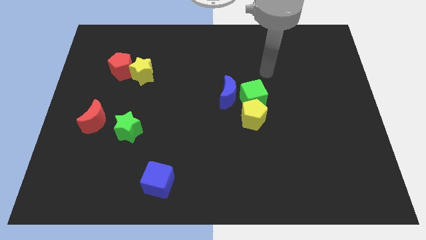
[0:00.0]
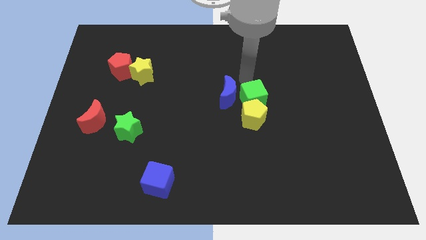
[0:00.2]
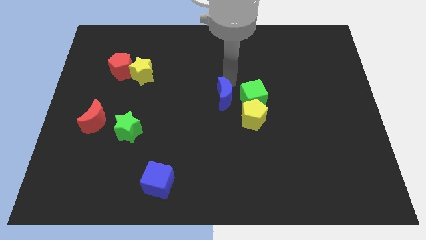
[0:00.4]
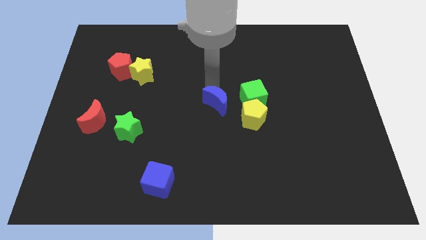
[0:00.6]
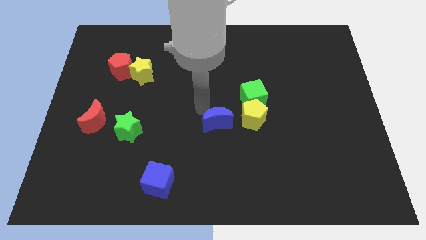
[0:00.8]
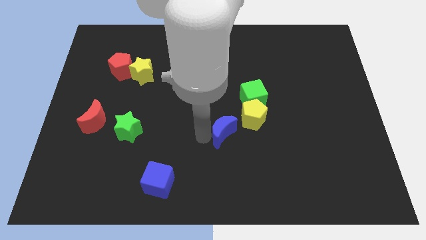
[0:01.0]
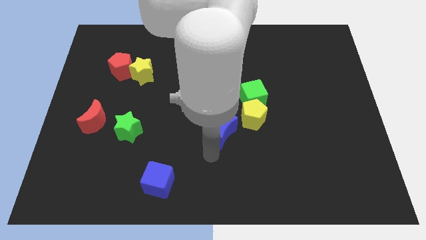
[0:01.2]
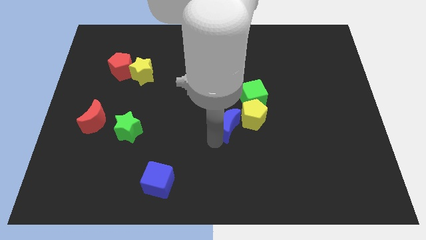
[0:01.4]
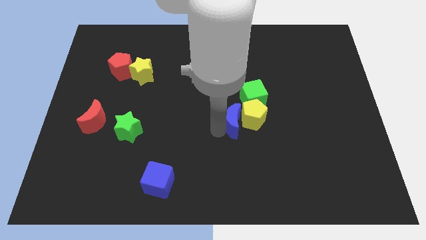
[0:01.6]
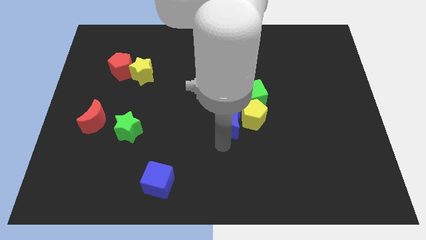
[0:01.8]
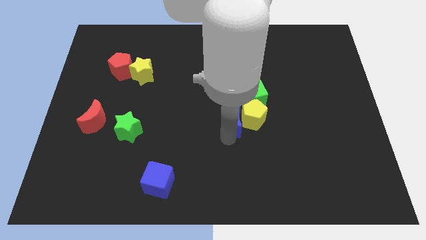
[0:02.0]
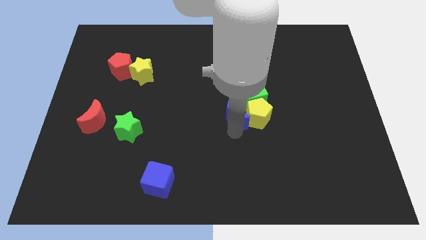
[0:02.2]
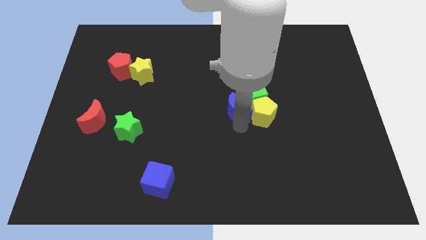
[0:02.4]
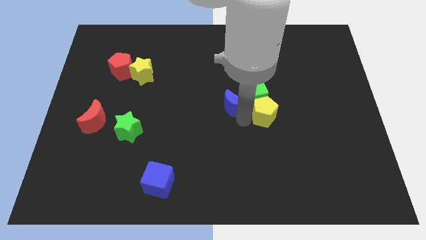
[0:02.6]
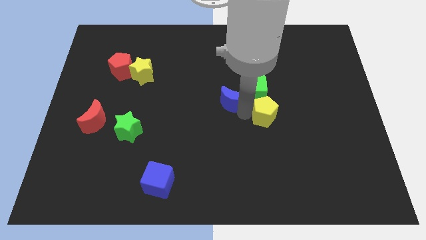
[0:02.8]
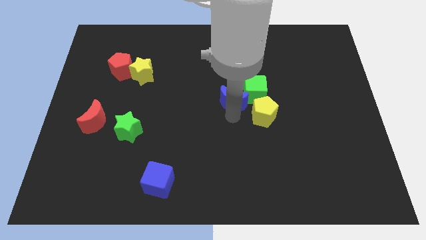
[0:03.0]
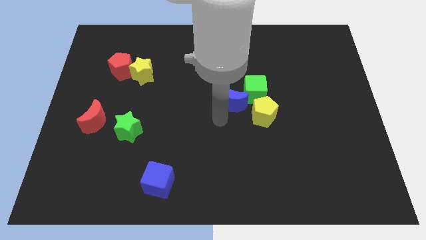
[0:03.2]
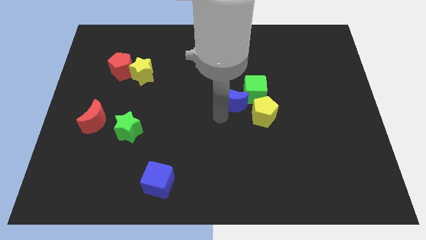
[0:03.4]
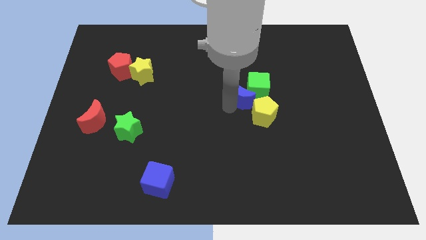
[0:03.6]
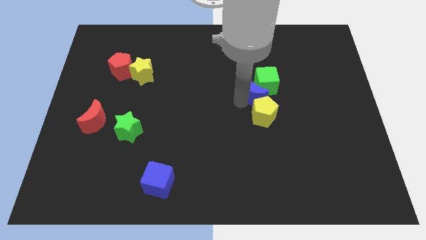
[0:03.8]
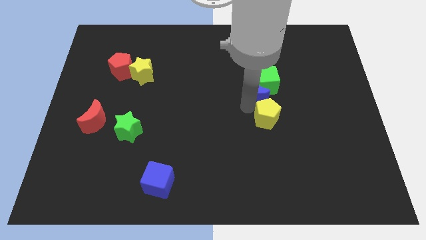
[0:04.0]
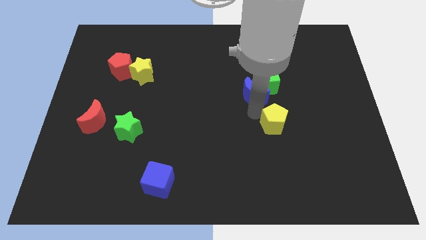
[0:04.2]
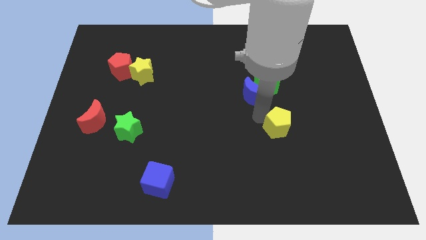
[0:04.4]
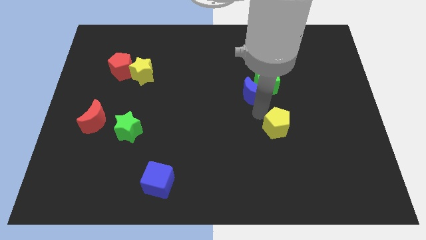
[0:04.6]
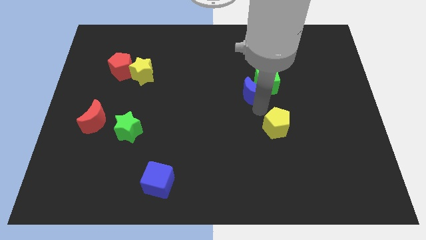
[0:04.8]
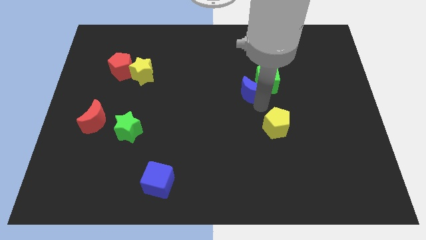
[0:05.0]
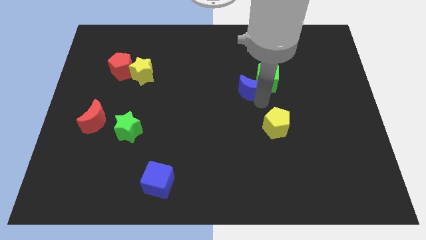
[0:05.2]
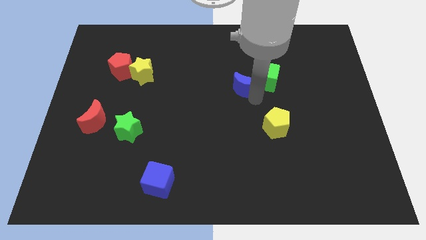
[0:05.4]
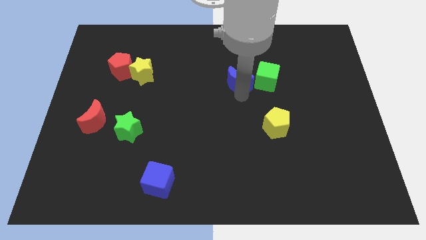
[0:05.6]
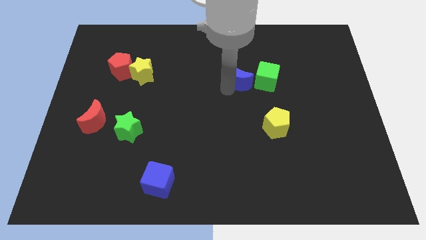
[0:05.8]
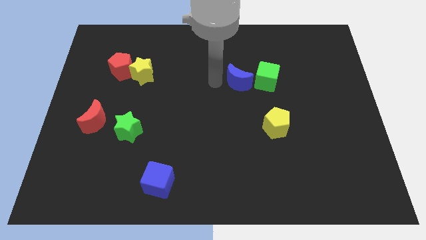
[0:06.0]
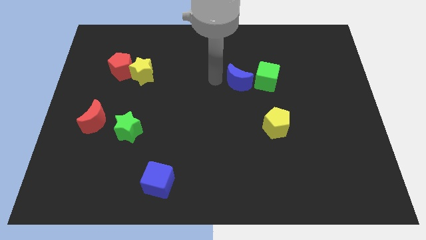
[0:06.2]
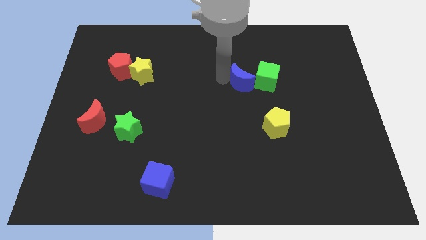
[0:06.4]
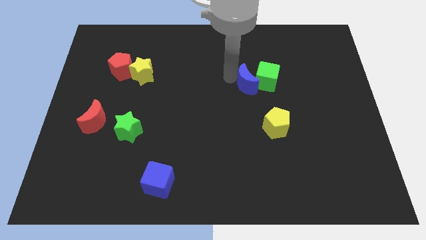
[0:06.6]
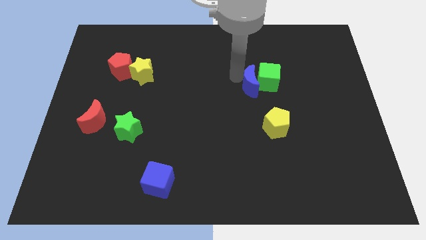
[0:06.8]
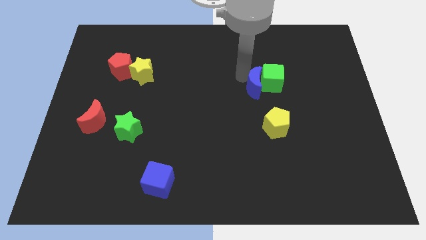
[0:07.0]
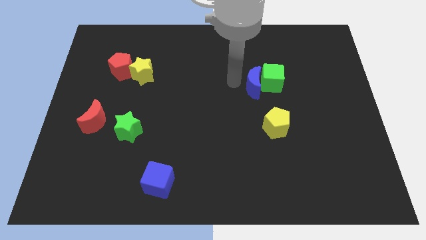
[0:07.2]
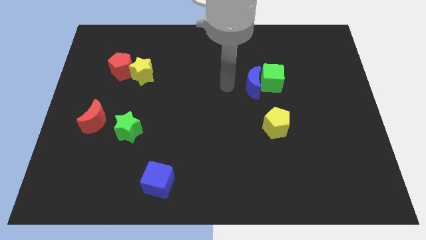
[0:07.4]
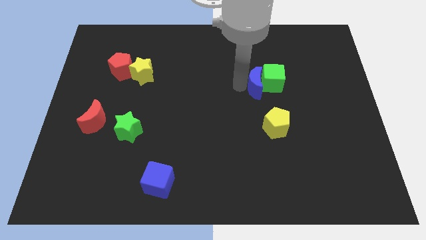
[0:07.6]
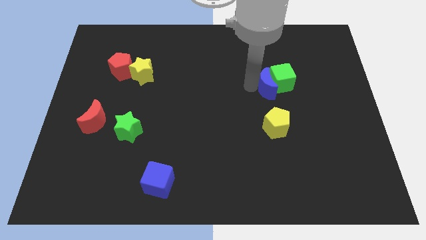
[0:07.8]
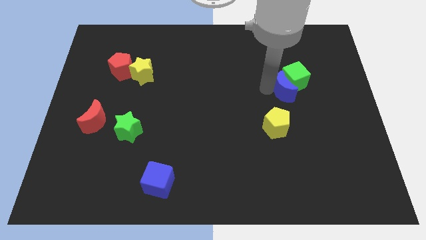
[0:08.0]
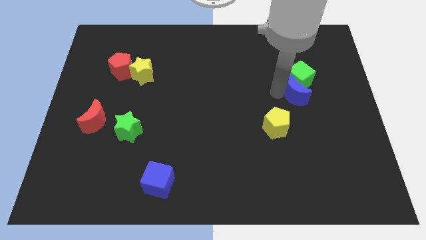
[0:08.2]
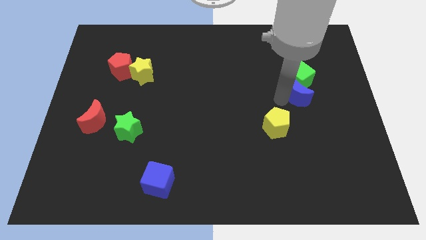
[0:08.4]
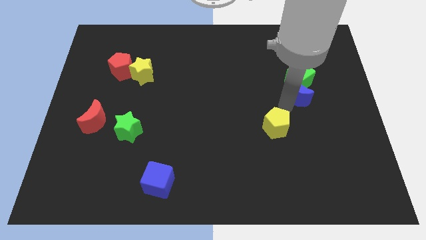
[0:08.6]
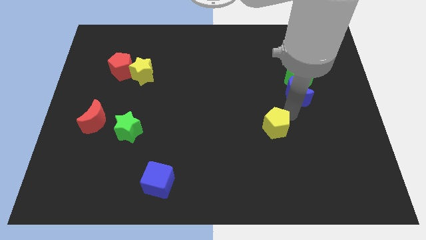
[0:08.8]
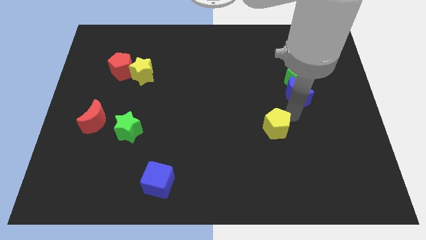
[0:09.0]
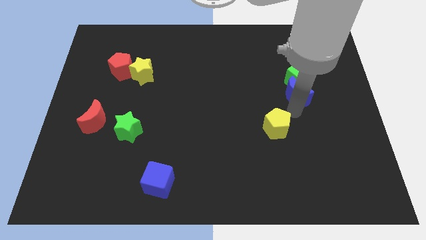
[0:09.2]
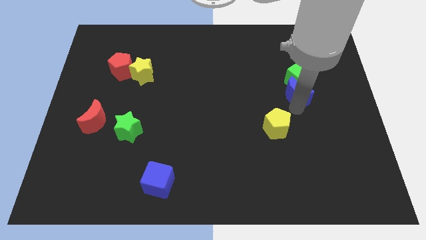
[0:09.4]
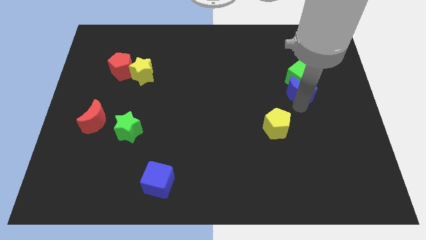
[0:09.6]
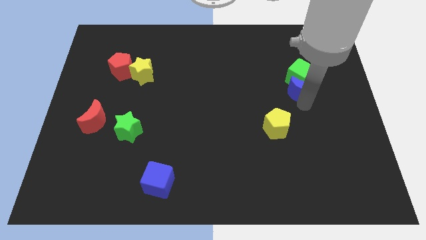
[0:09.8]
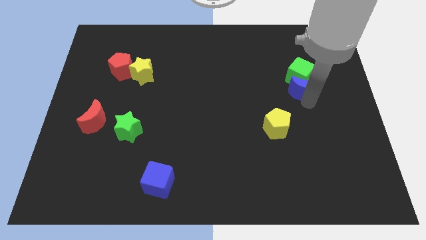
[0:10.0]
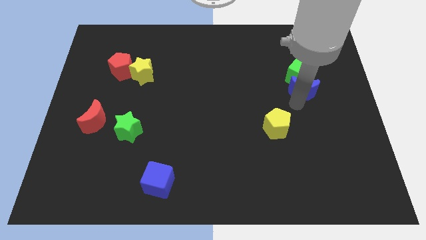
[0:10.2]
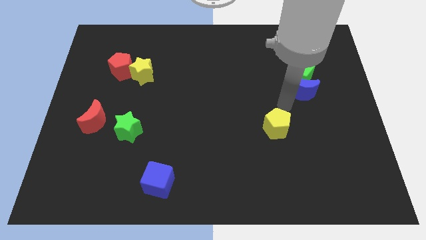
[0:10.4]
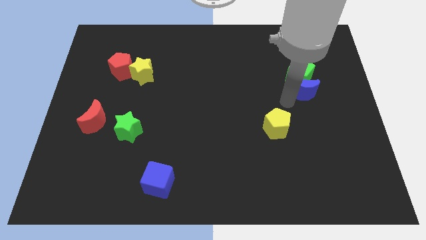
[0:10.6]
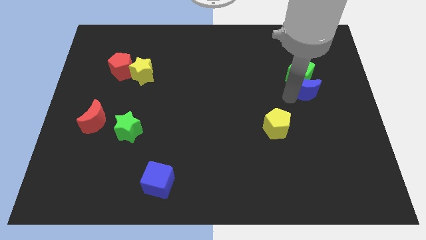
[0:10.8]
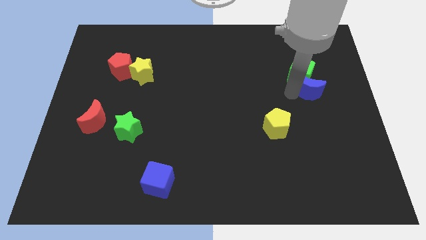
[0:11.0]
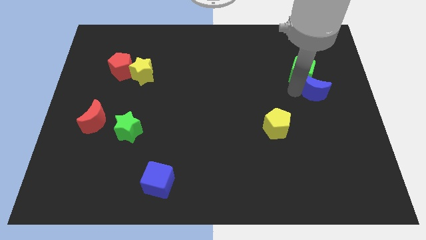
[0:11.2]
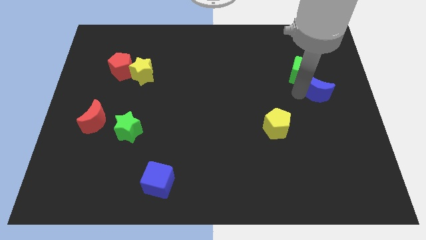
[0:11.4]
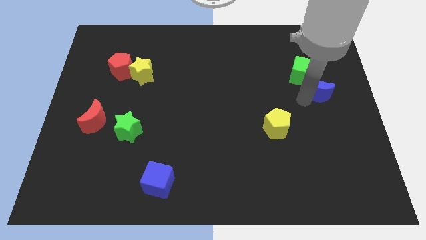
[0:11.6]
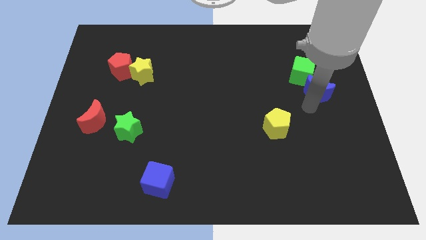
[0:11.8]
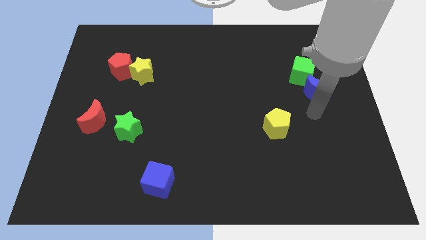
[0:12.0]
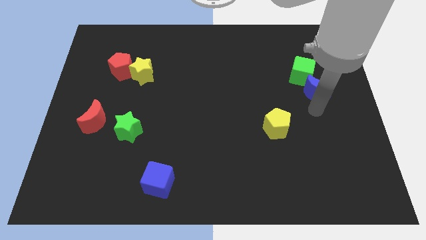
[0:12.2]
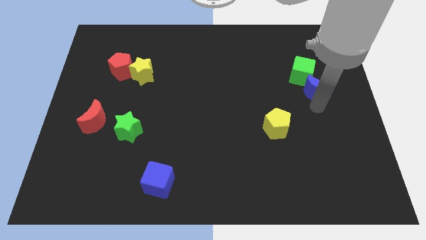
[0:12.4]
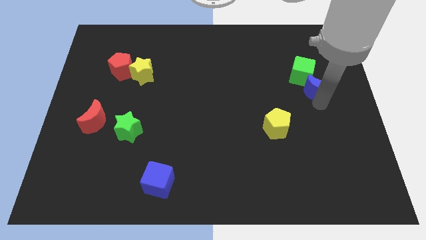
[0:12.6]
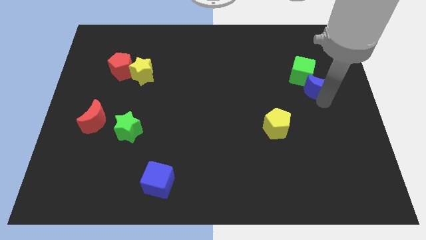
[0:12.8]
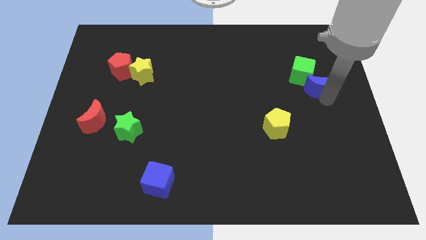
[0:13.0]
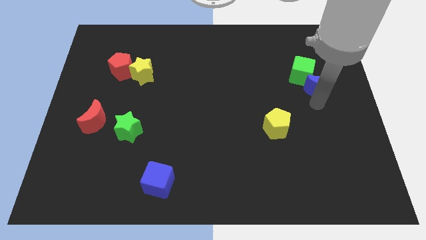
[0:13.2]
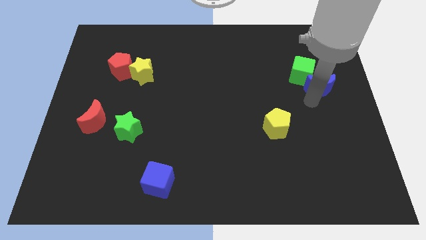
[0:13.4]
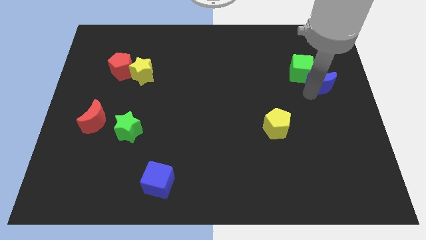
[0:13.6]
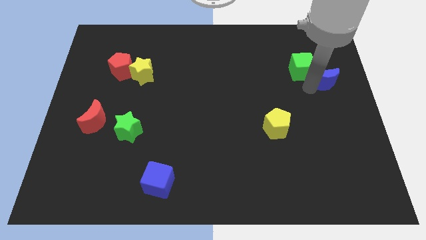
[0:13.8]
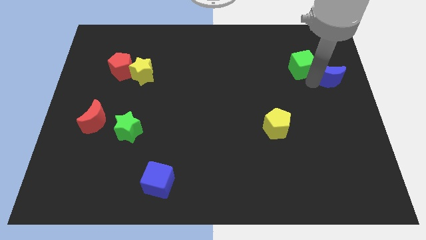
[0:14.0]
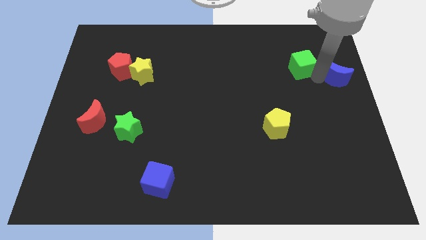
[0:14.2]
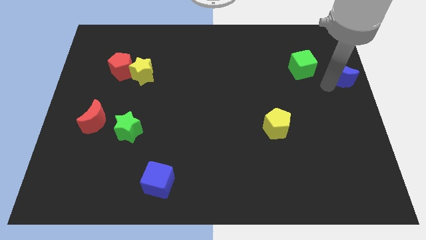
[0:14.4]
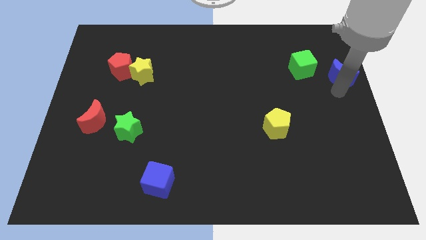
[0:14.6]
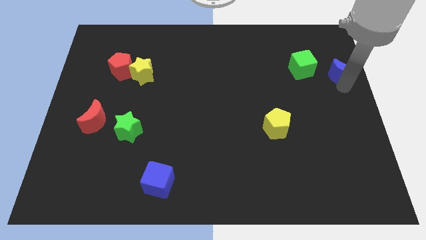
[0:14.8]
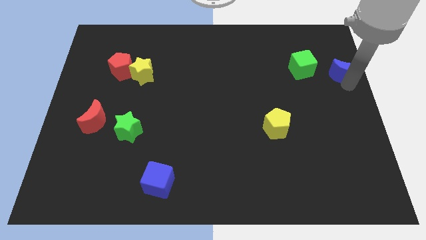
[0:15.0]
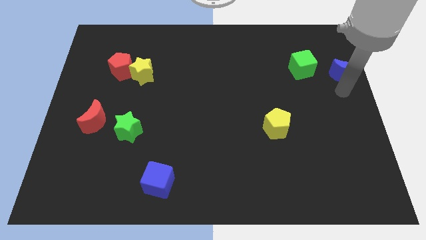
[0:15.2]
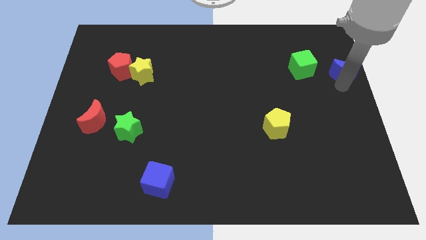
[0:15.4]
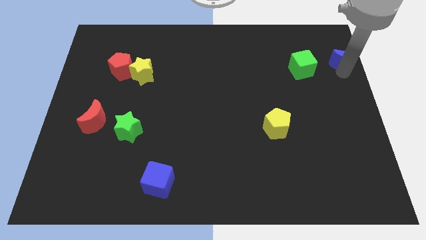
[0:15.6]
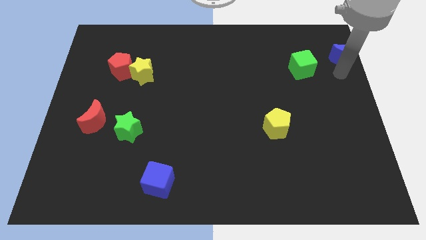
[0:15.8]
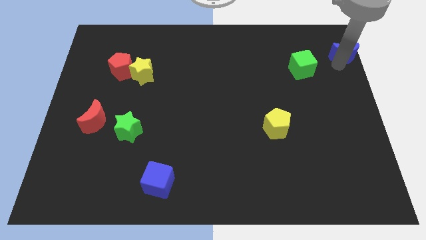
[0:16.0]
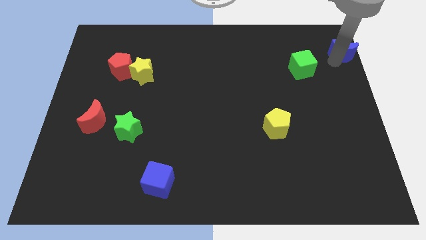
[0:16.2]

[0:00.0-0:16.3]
slide the blue moon to the top right of the board
